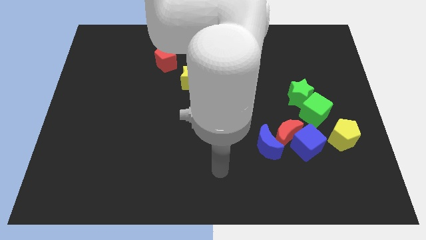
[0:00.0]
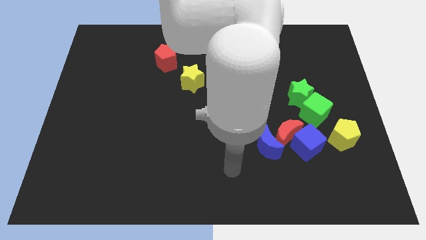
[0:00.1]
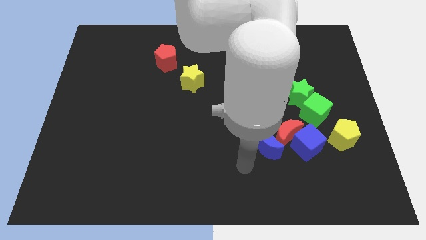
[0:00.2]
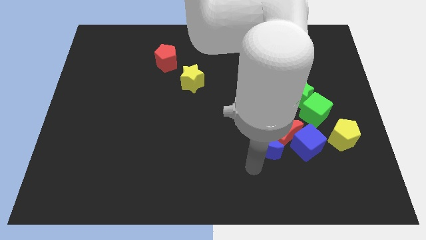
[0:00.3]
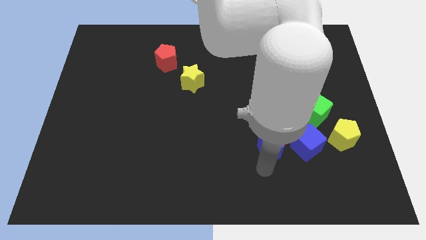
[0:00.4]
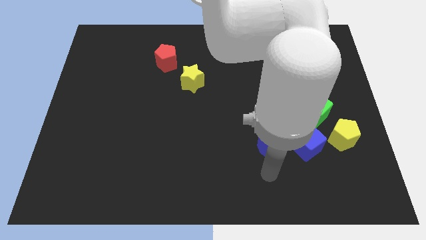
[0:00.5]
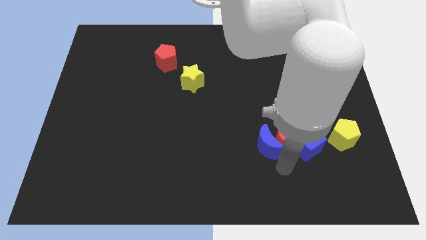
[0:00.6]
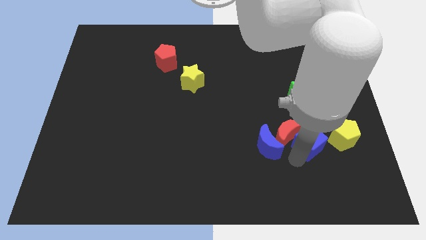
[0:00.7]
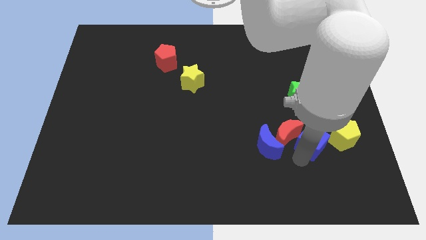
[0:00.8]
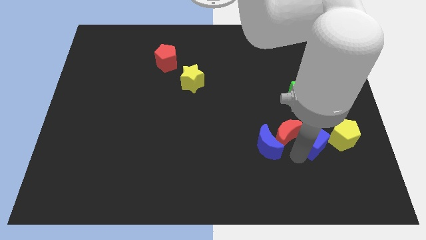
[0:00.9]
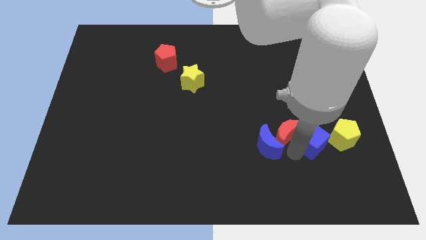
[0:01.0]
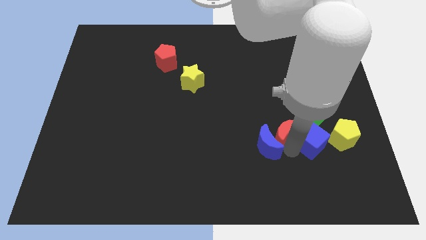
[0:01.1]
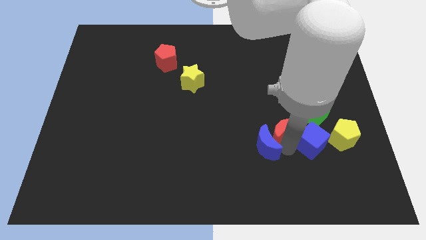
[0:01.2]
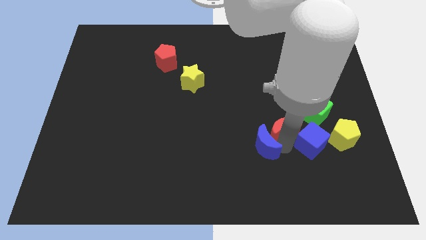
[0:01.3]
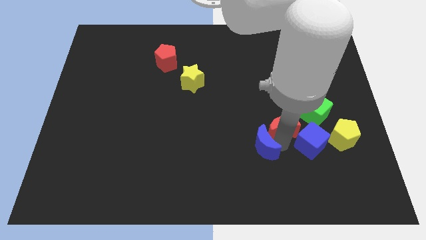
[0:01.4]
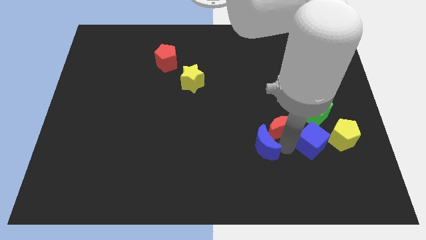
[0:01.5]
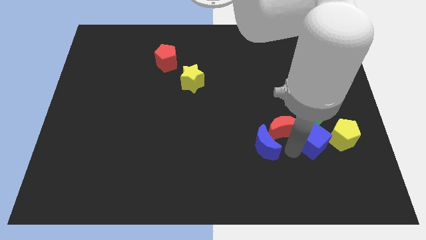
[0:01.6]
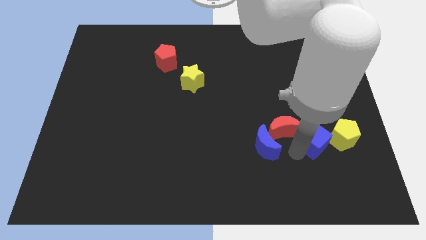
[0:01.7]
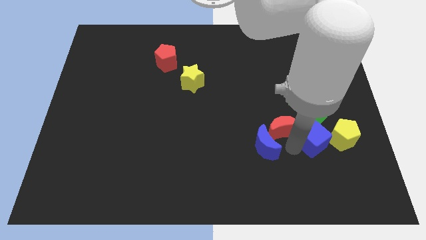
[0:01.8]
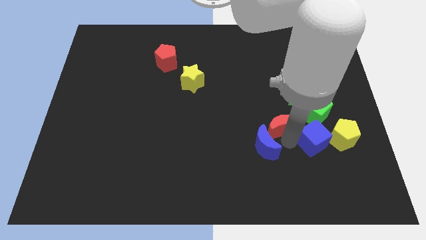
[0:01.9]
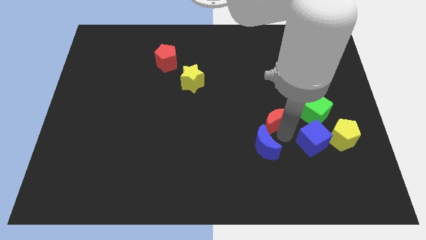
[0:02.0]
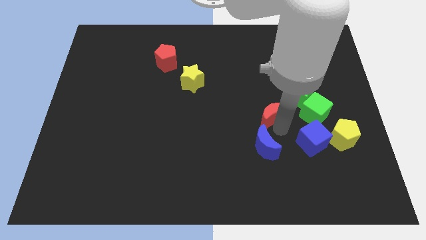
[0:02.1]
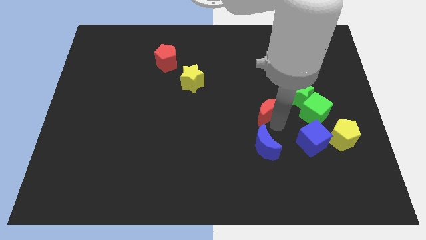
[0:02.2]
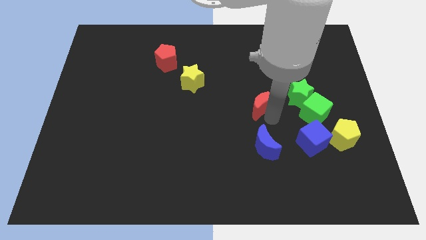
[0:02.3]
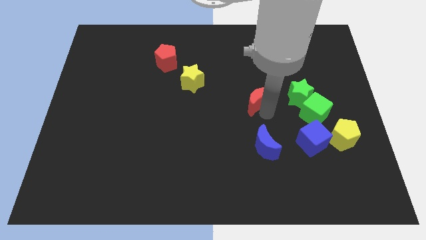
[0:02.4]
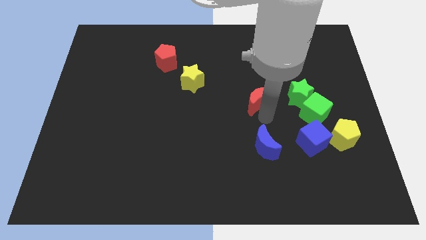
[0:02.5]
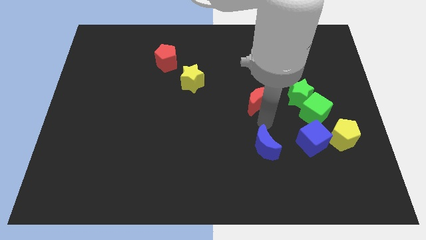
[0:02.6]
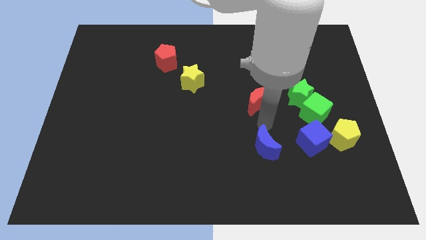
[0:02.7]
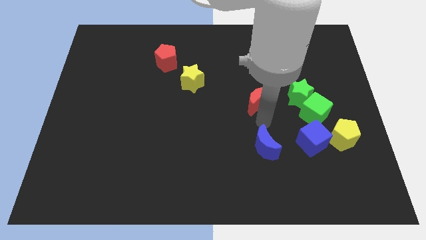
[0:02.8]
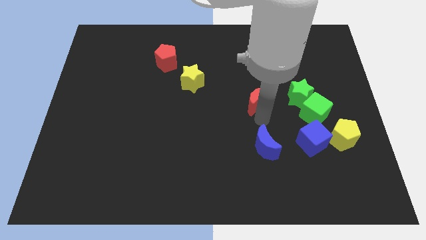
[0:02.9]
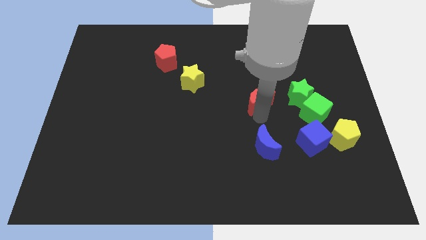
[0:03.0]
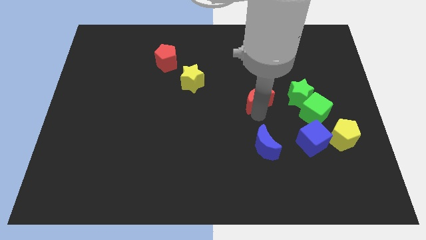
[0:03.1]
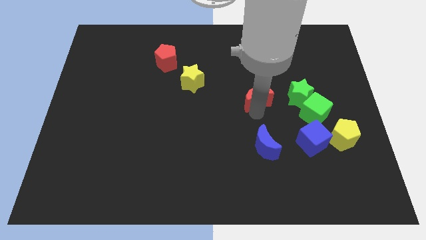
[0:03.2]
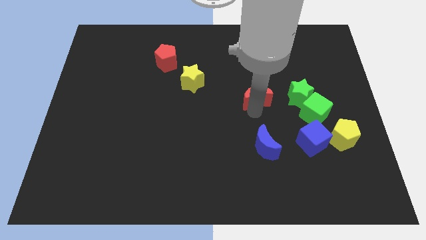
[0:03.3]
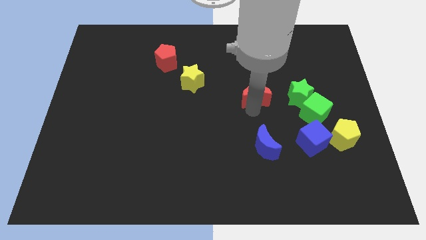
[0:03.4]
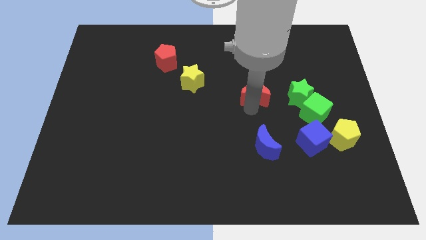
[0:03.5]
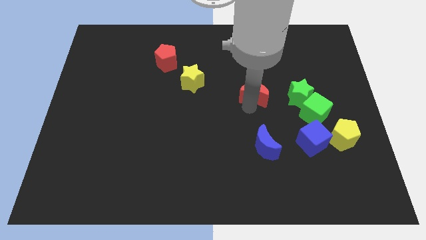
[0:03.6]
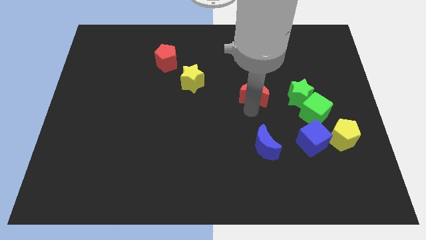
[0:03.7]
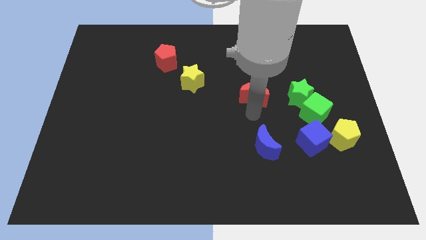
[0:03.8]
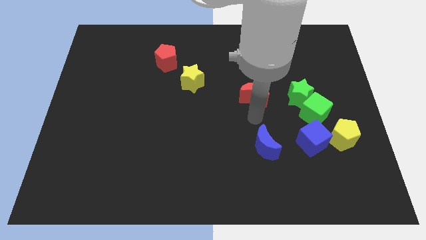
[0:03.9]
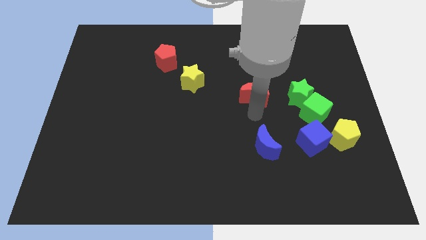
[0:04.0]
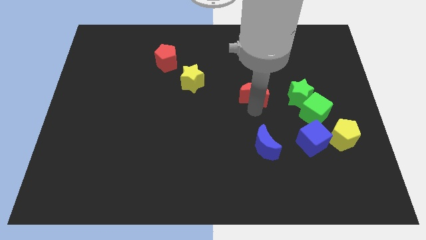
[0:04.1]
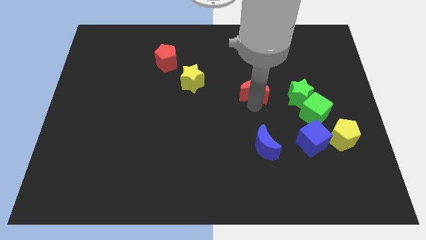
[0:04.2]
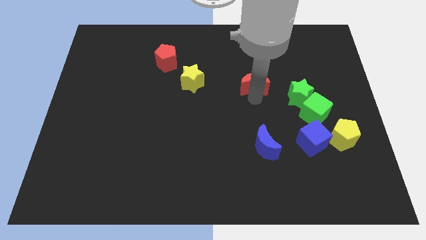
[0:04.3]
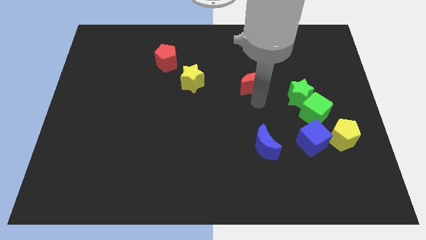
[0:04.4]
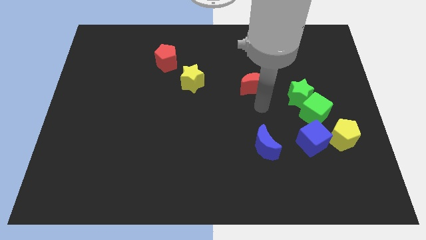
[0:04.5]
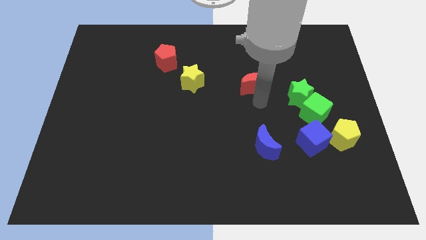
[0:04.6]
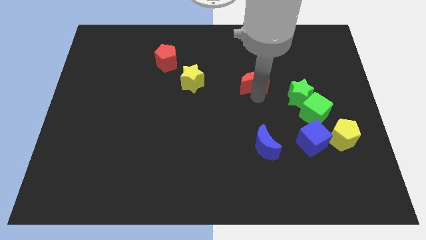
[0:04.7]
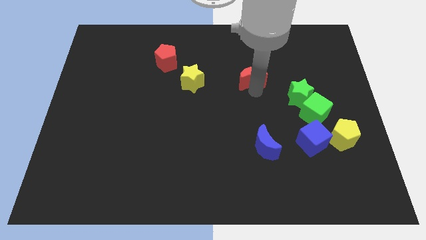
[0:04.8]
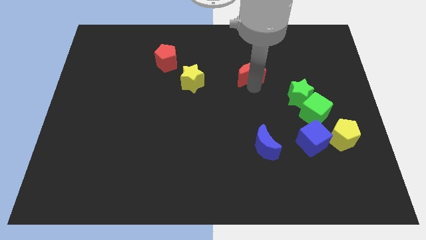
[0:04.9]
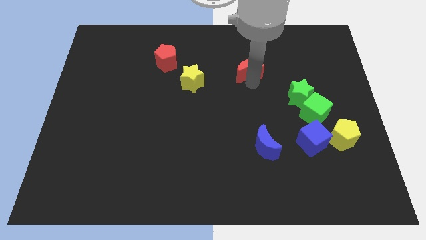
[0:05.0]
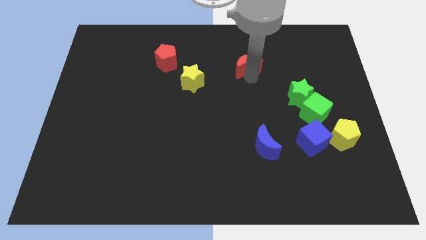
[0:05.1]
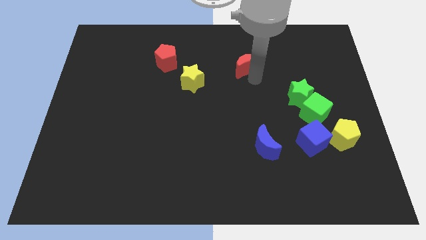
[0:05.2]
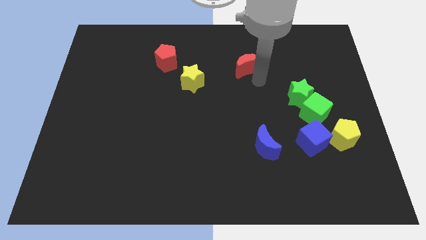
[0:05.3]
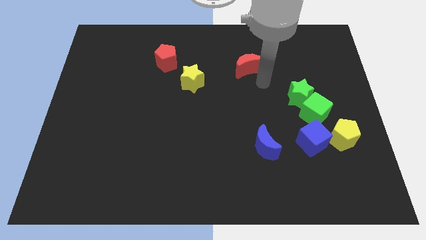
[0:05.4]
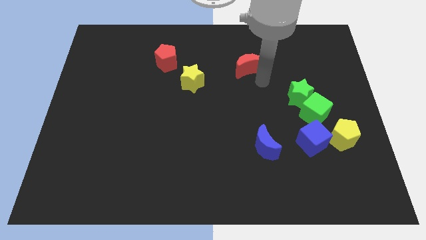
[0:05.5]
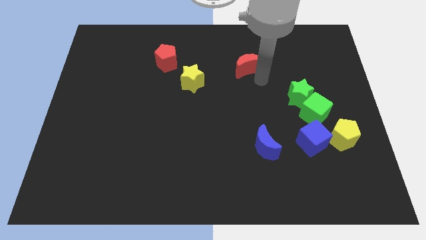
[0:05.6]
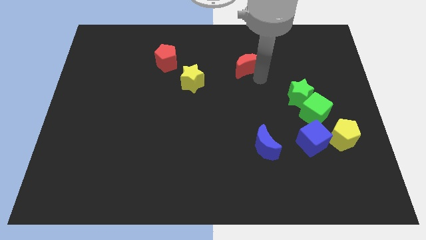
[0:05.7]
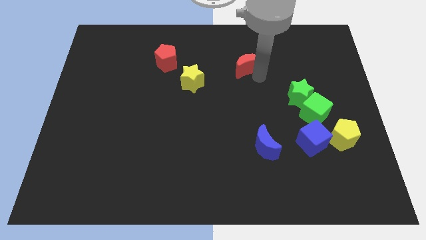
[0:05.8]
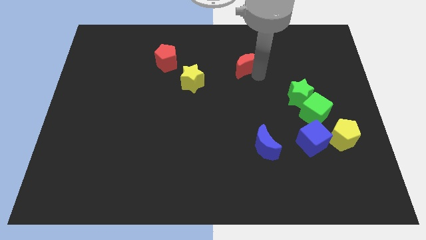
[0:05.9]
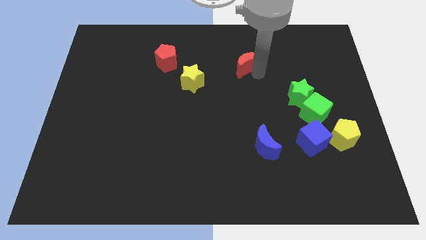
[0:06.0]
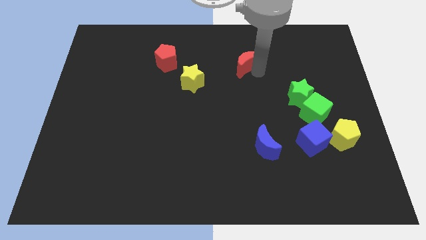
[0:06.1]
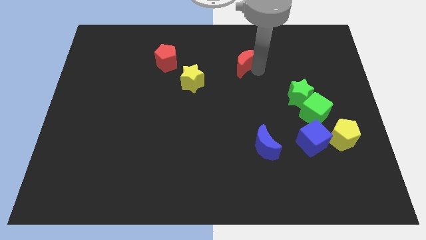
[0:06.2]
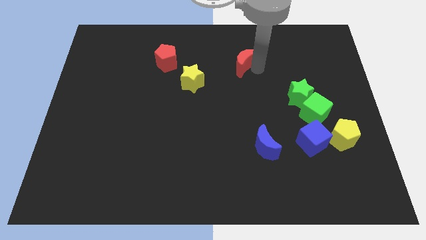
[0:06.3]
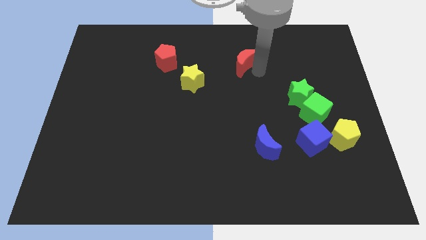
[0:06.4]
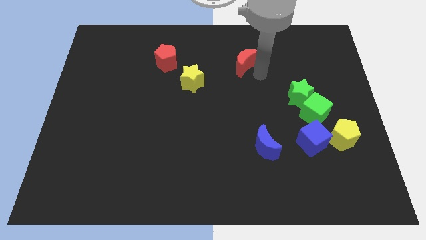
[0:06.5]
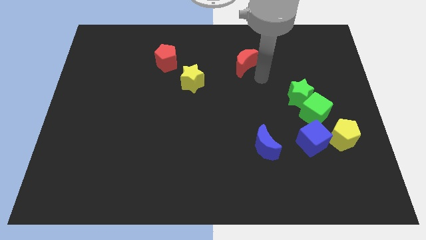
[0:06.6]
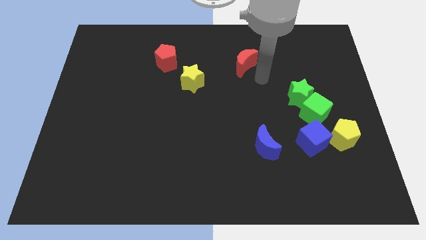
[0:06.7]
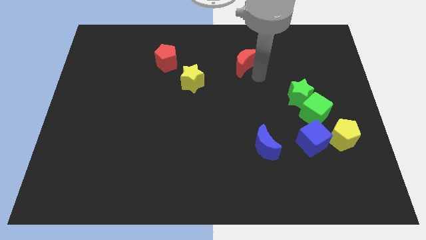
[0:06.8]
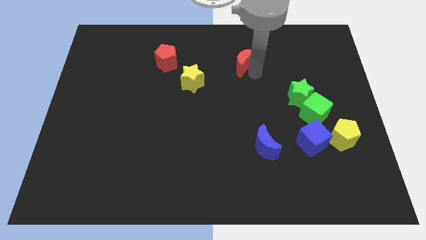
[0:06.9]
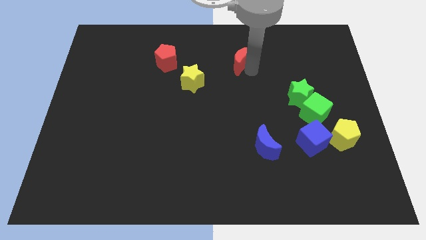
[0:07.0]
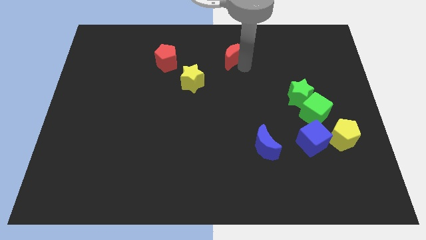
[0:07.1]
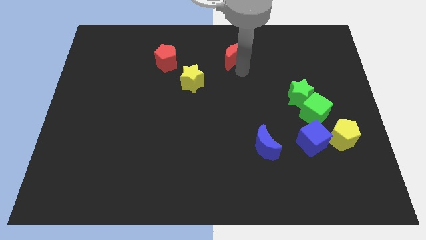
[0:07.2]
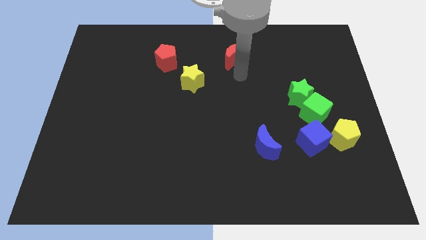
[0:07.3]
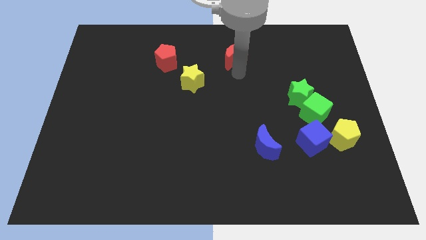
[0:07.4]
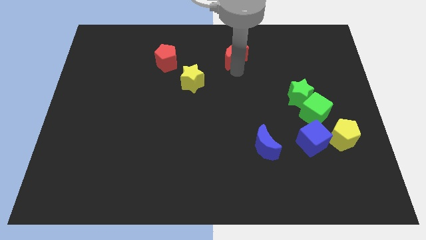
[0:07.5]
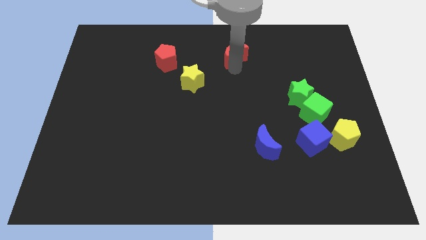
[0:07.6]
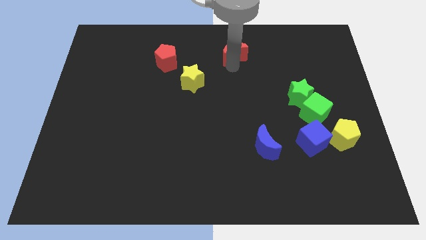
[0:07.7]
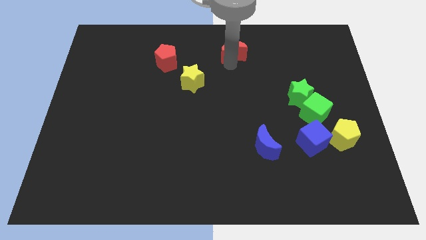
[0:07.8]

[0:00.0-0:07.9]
slide the red moon to the towards your base
